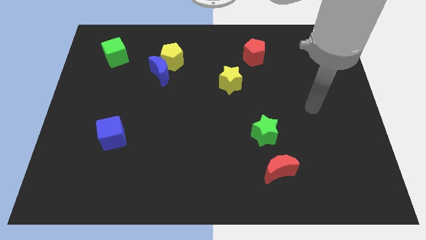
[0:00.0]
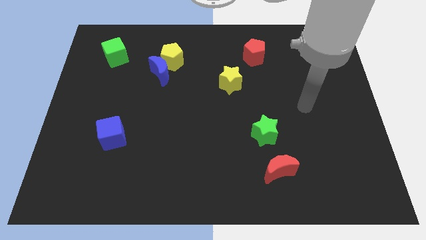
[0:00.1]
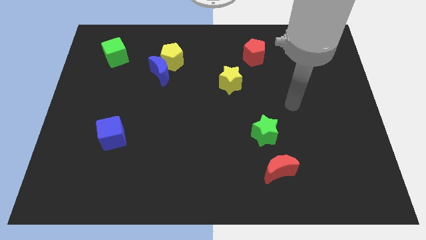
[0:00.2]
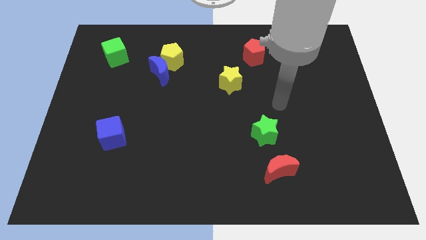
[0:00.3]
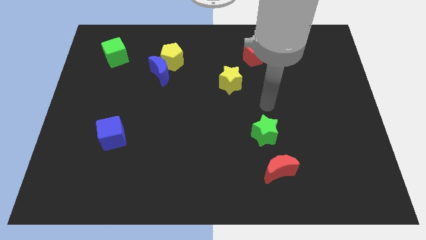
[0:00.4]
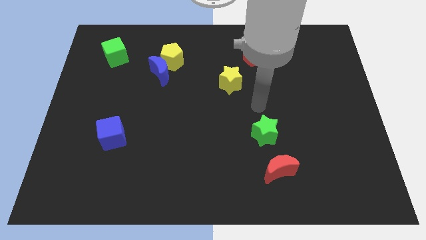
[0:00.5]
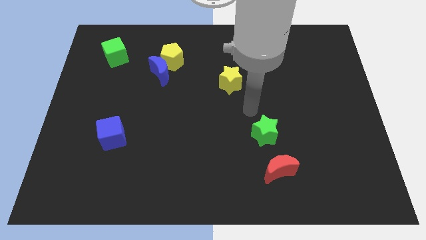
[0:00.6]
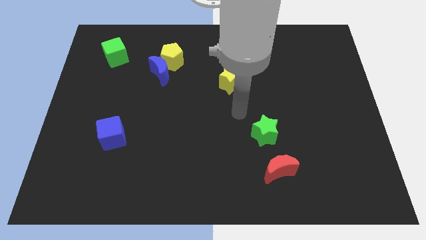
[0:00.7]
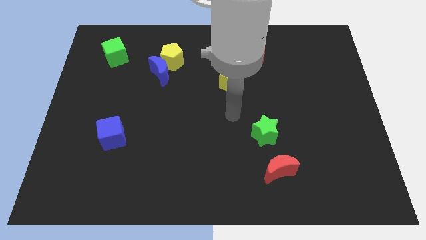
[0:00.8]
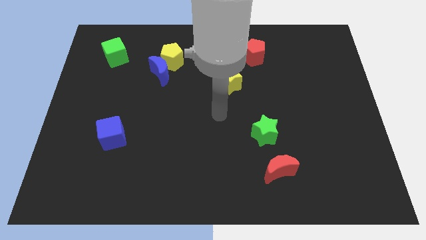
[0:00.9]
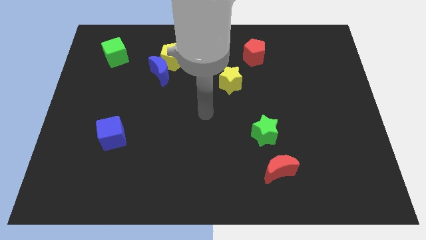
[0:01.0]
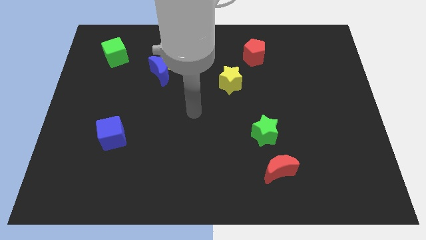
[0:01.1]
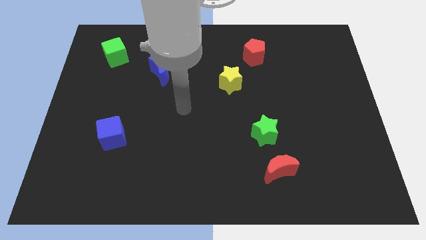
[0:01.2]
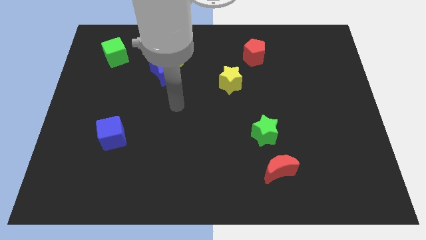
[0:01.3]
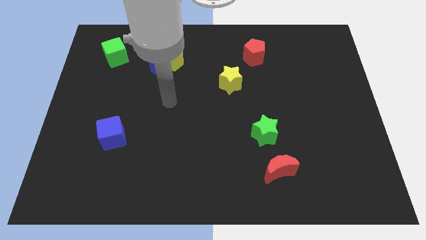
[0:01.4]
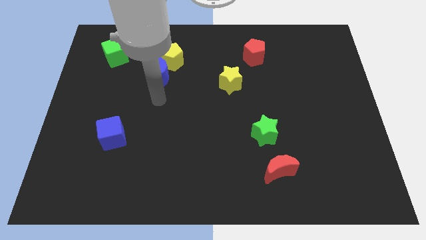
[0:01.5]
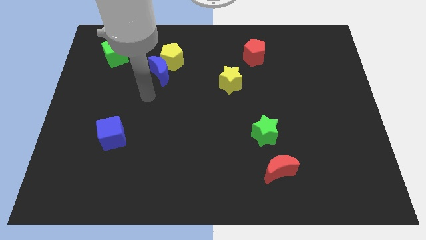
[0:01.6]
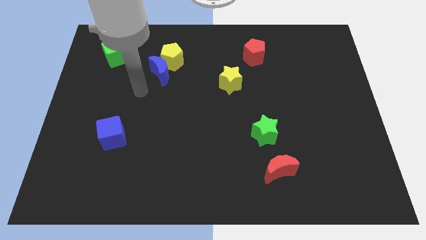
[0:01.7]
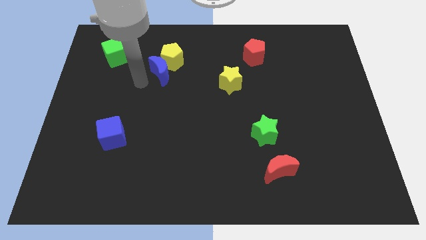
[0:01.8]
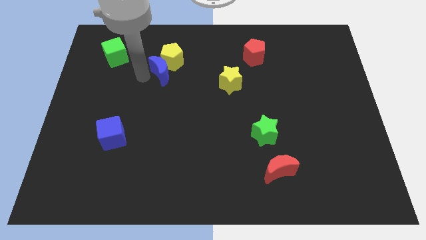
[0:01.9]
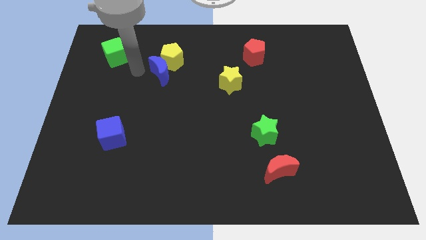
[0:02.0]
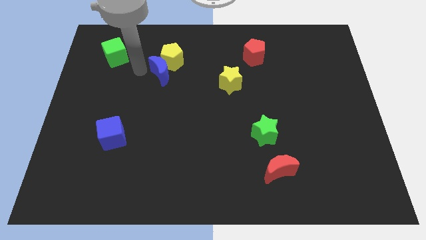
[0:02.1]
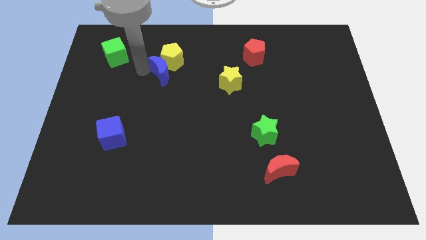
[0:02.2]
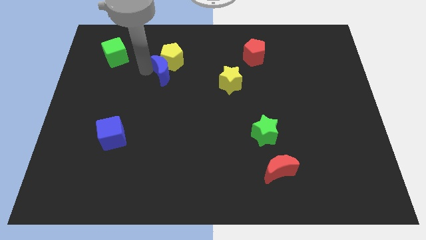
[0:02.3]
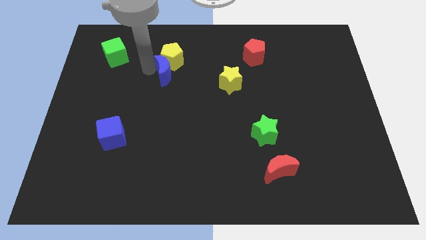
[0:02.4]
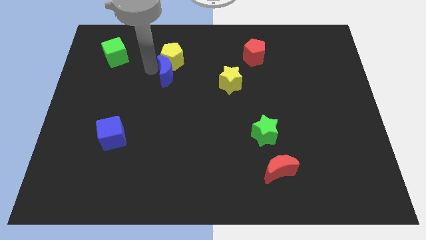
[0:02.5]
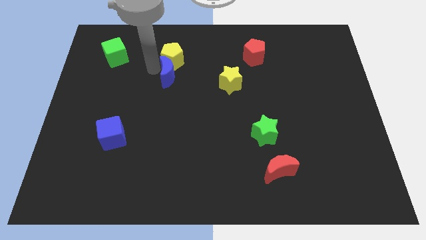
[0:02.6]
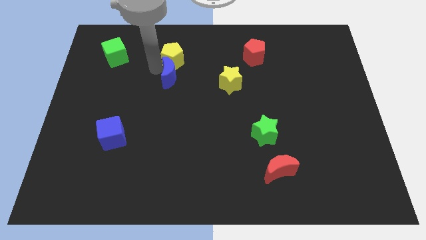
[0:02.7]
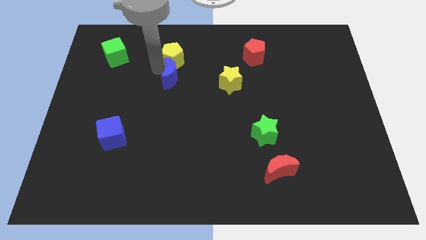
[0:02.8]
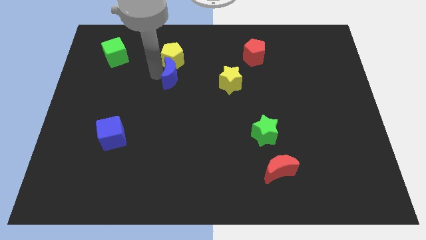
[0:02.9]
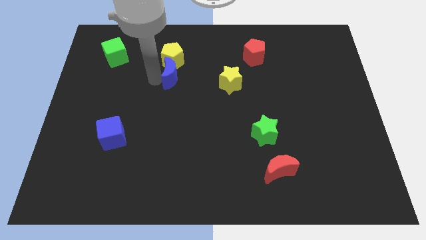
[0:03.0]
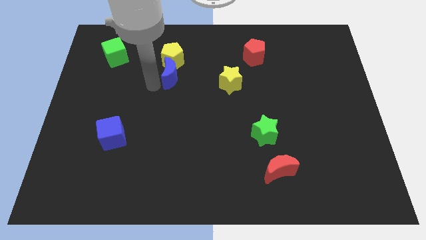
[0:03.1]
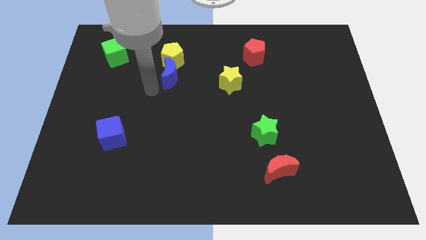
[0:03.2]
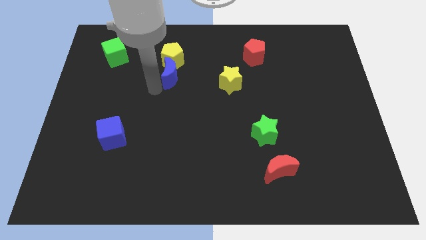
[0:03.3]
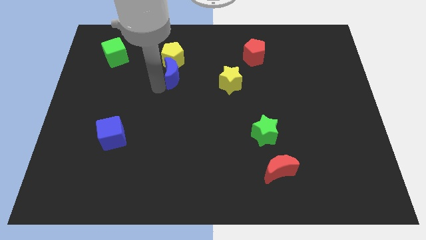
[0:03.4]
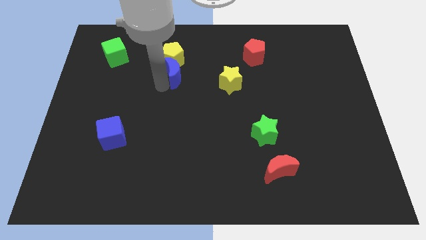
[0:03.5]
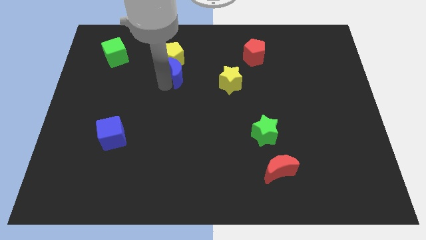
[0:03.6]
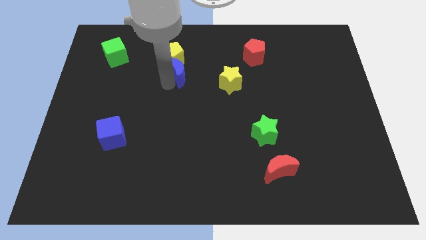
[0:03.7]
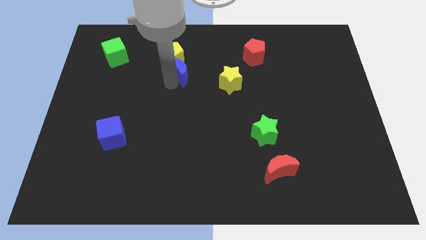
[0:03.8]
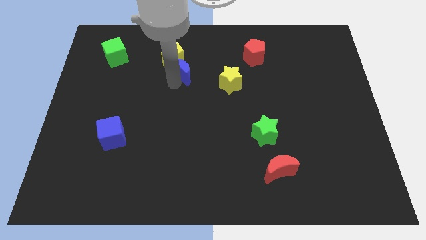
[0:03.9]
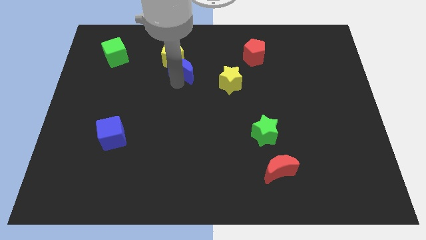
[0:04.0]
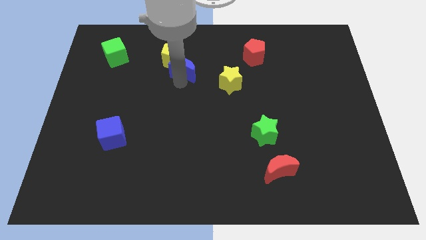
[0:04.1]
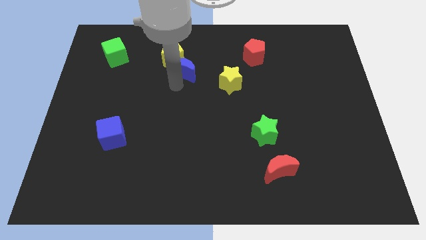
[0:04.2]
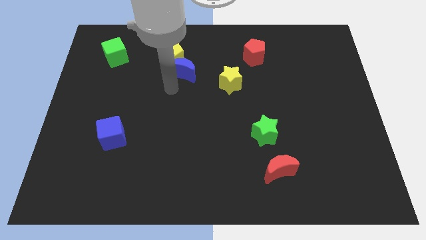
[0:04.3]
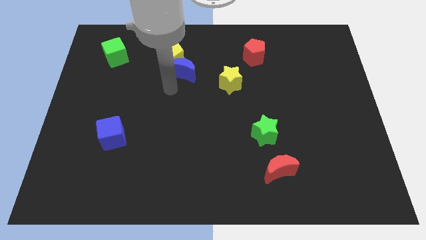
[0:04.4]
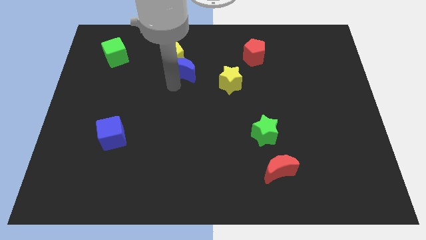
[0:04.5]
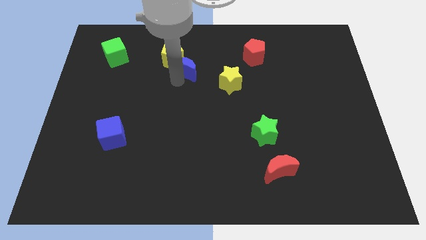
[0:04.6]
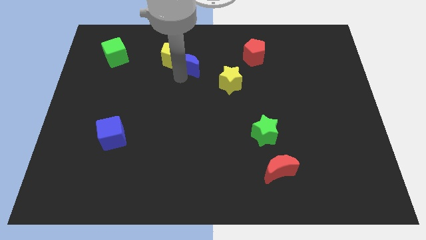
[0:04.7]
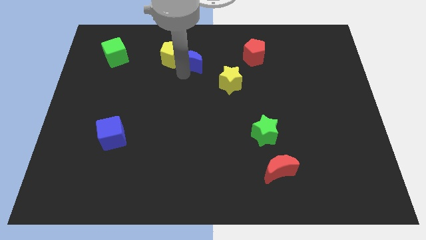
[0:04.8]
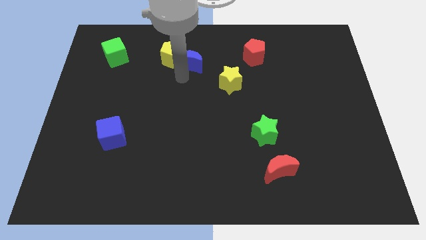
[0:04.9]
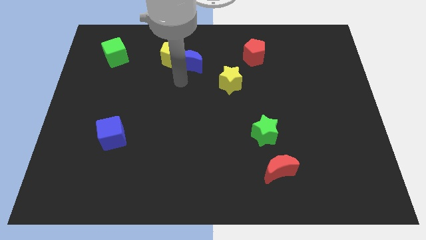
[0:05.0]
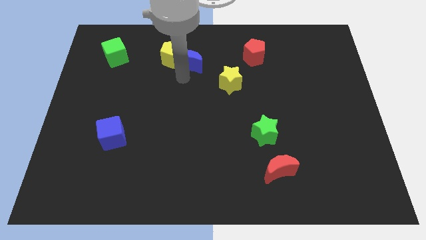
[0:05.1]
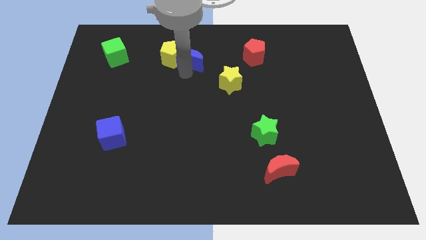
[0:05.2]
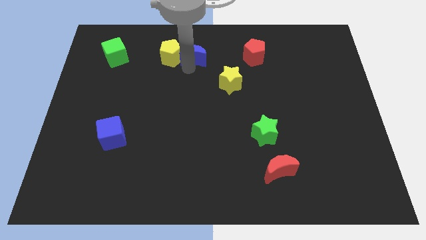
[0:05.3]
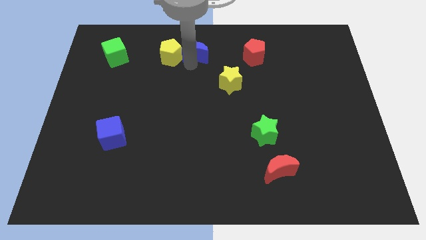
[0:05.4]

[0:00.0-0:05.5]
push the blue moon to the top side

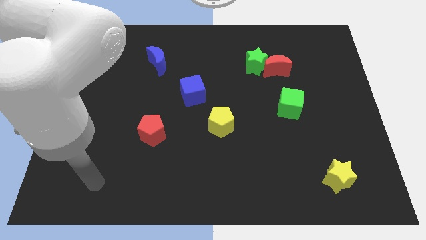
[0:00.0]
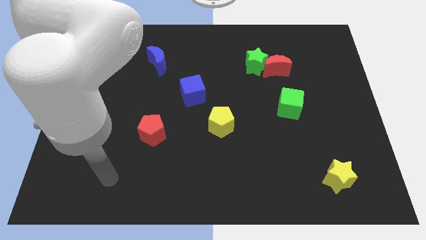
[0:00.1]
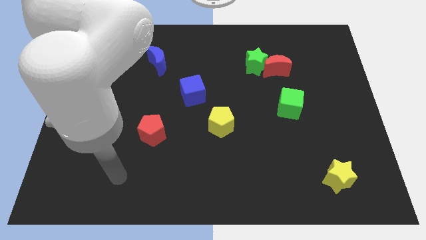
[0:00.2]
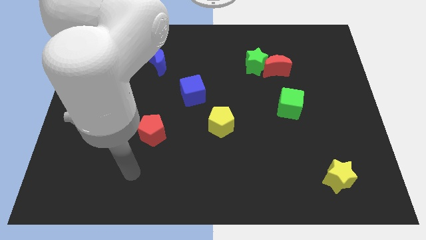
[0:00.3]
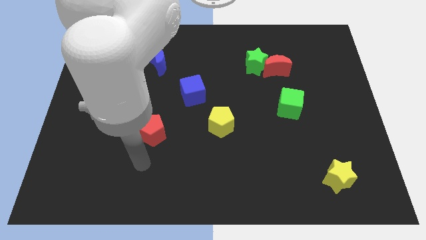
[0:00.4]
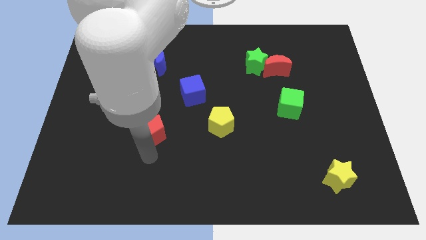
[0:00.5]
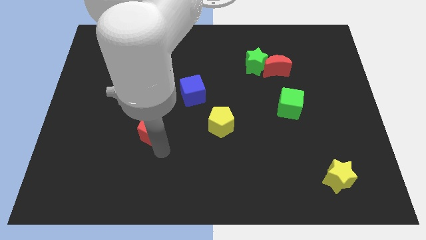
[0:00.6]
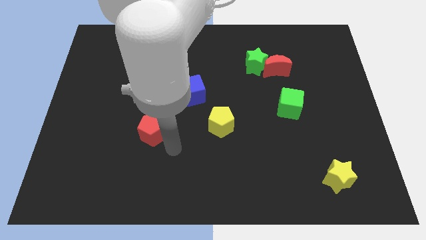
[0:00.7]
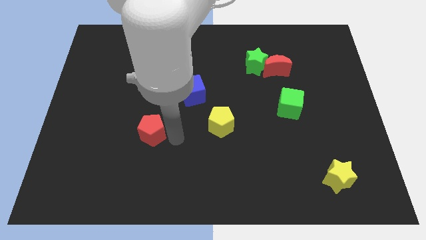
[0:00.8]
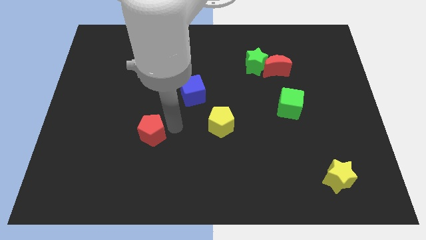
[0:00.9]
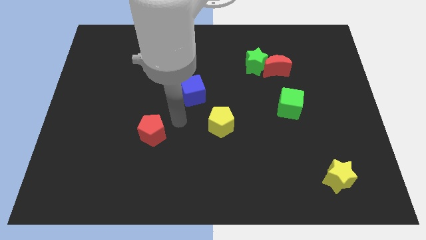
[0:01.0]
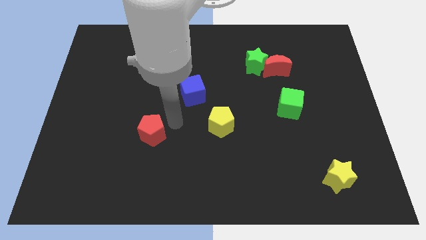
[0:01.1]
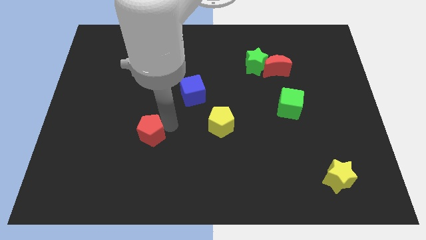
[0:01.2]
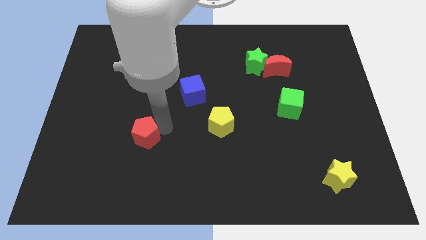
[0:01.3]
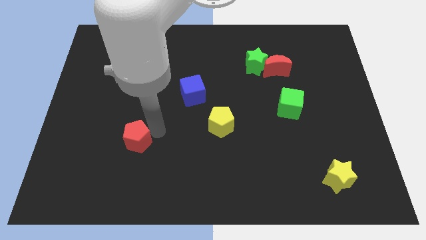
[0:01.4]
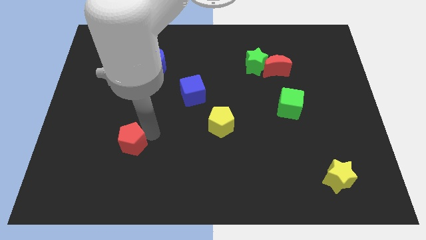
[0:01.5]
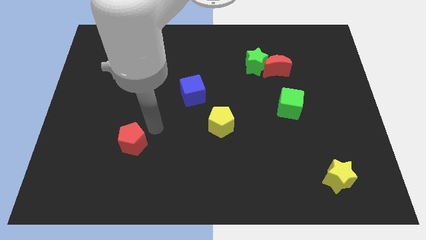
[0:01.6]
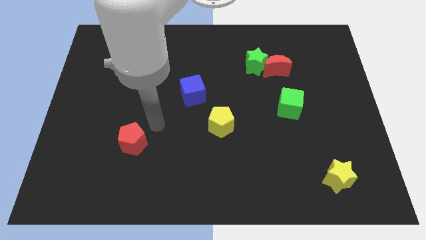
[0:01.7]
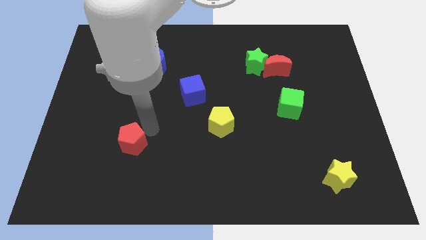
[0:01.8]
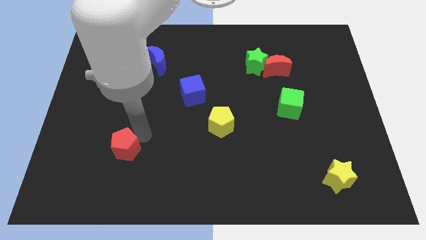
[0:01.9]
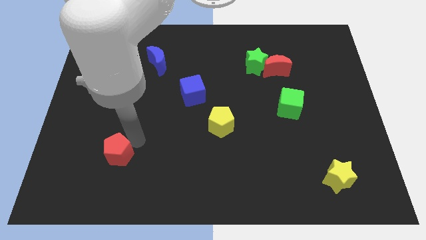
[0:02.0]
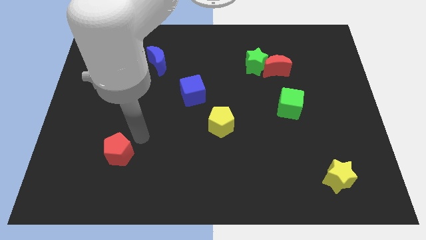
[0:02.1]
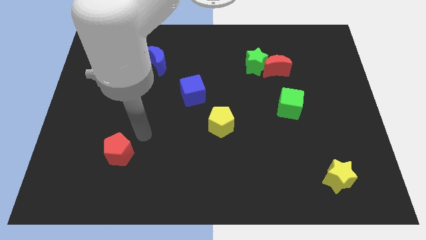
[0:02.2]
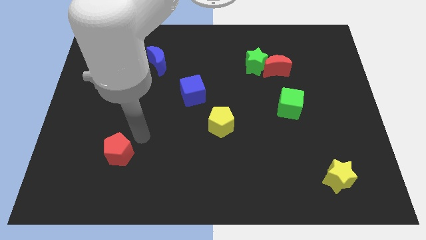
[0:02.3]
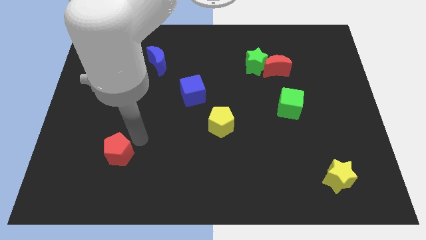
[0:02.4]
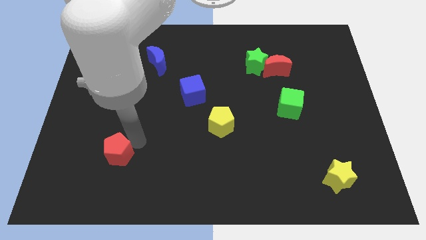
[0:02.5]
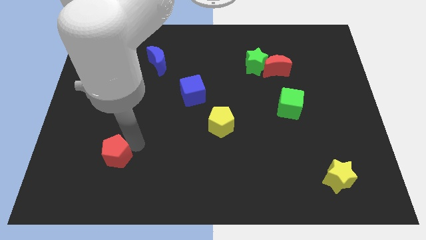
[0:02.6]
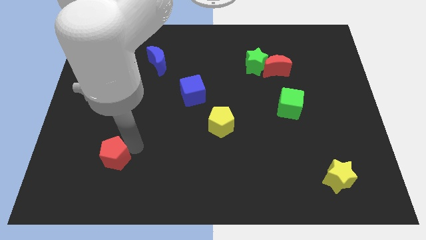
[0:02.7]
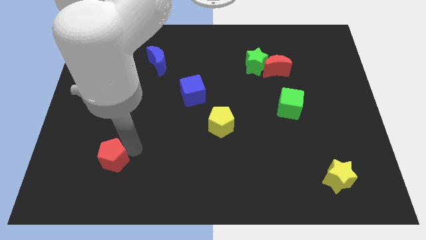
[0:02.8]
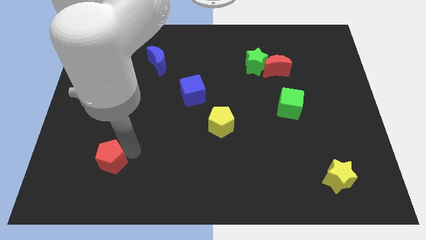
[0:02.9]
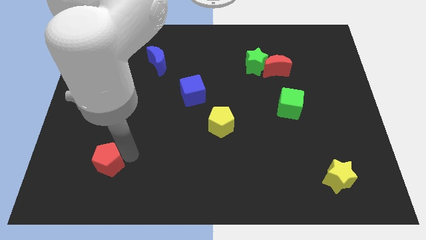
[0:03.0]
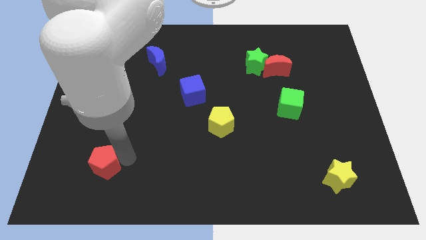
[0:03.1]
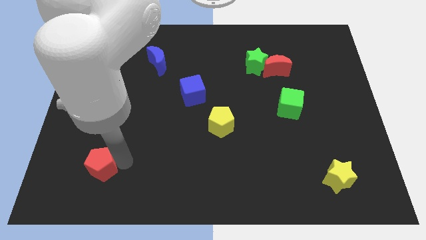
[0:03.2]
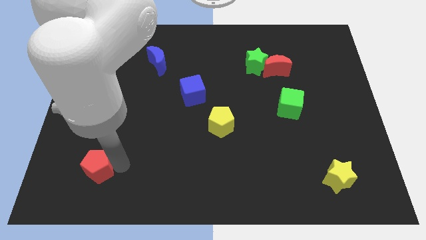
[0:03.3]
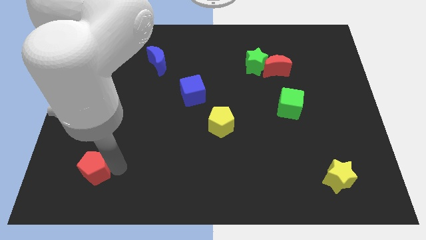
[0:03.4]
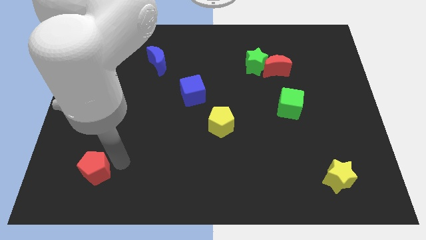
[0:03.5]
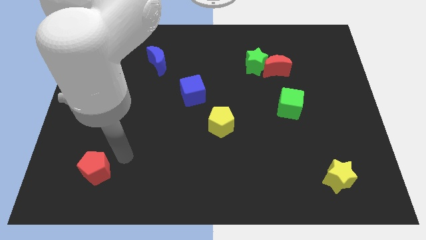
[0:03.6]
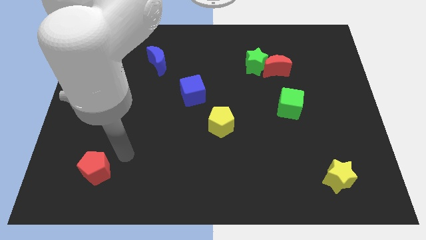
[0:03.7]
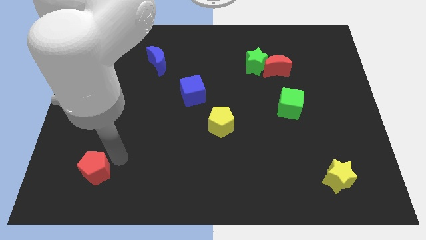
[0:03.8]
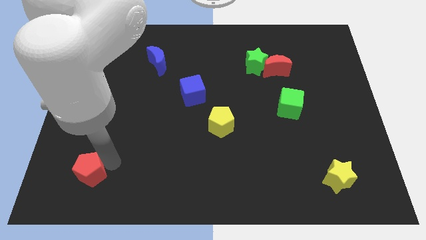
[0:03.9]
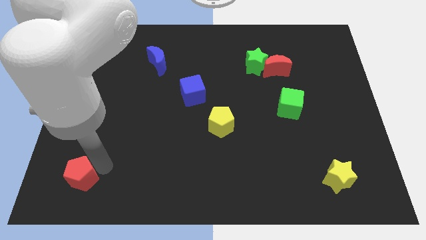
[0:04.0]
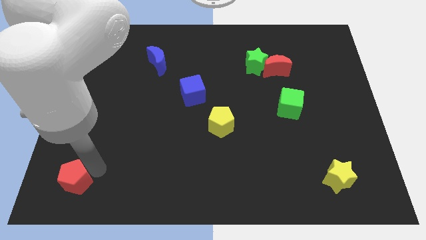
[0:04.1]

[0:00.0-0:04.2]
move the red pentagon to the bottom left of the board
